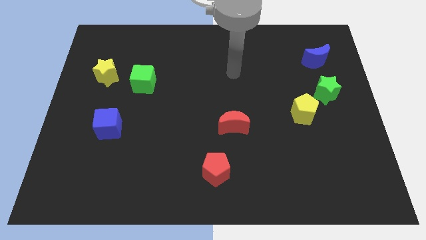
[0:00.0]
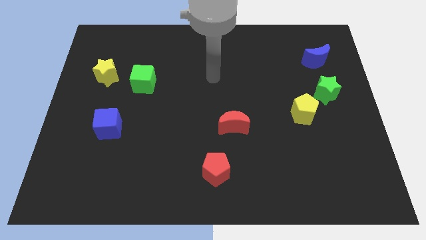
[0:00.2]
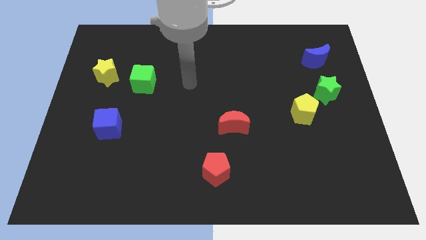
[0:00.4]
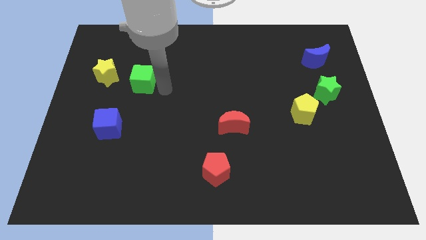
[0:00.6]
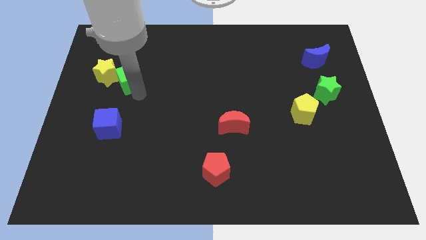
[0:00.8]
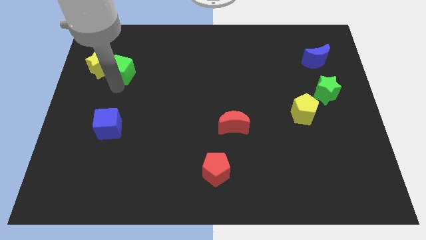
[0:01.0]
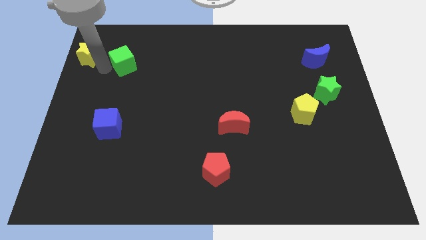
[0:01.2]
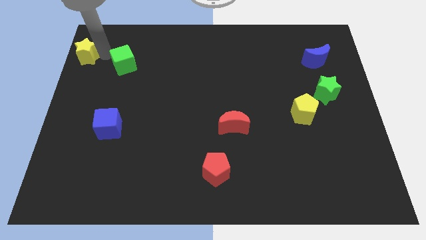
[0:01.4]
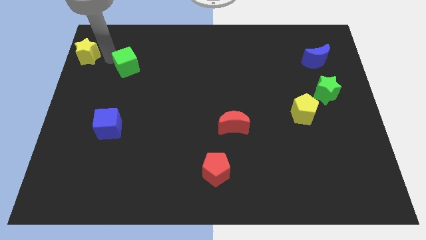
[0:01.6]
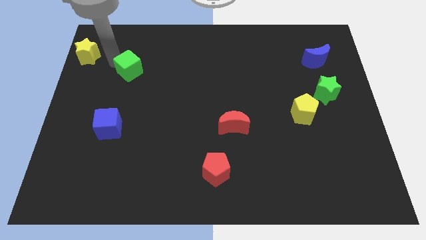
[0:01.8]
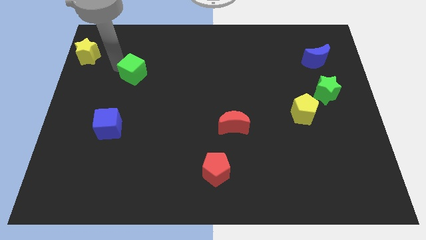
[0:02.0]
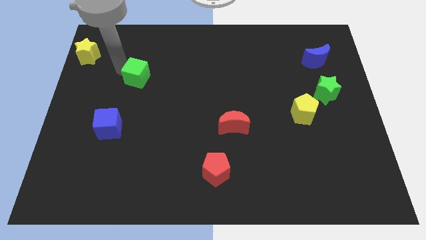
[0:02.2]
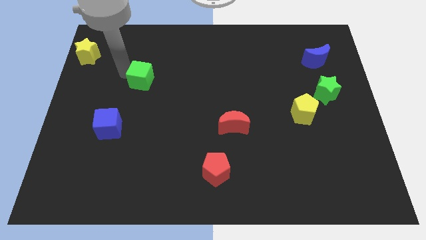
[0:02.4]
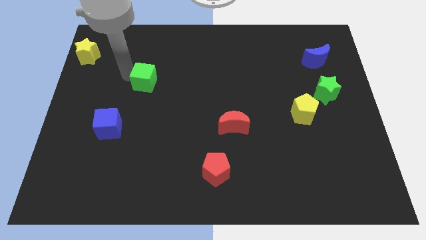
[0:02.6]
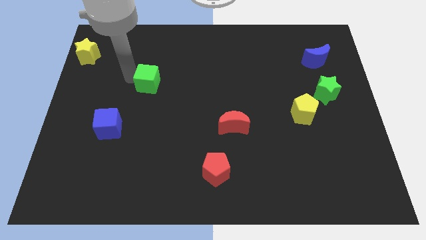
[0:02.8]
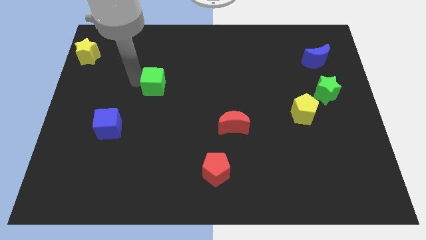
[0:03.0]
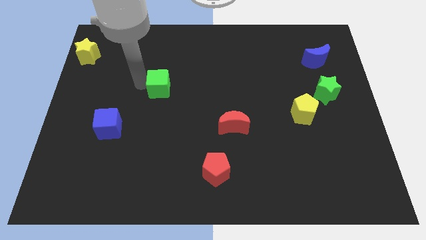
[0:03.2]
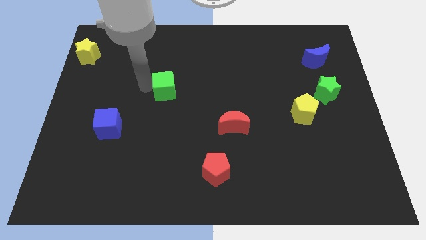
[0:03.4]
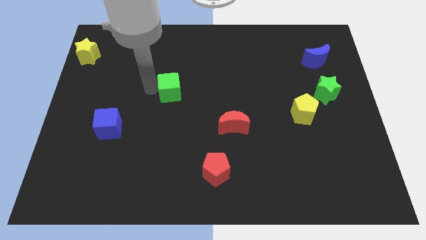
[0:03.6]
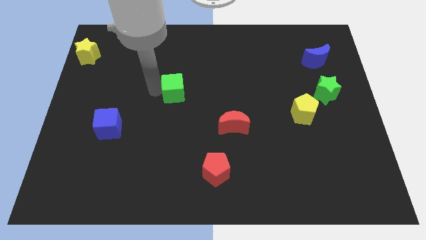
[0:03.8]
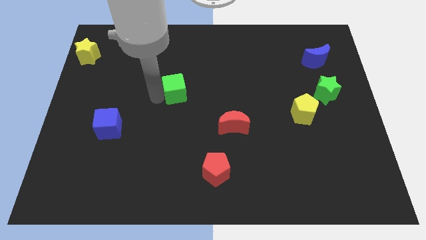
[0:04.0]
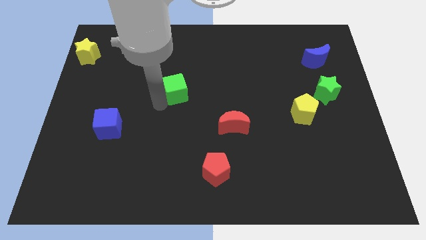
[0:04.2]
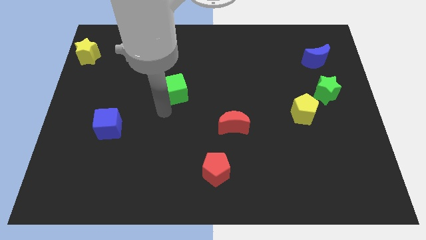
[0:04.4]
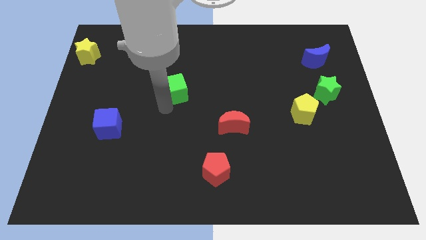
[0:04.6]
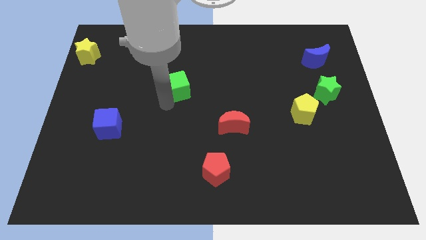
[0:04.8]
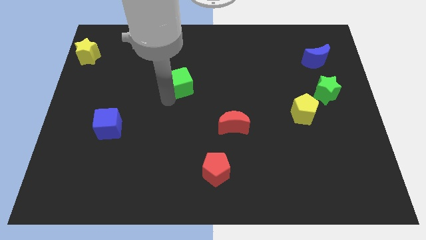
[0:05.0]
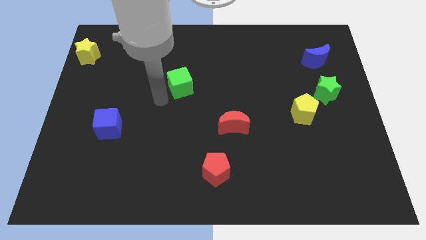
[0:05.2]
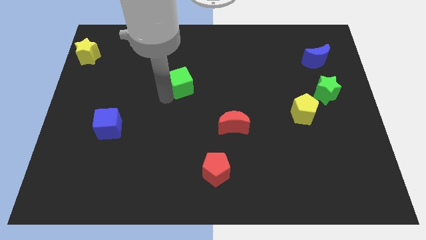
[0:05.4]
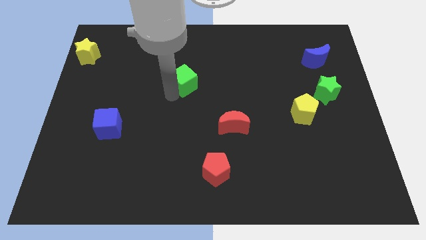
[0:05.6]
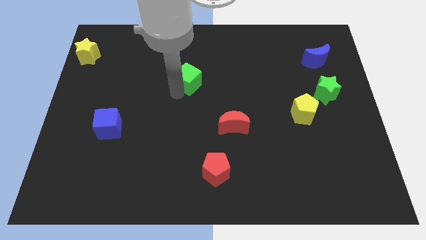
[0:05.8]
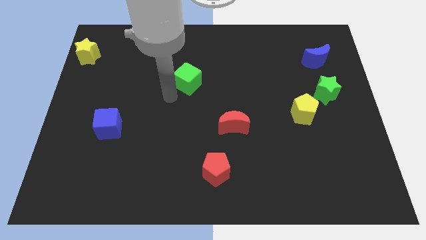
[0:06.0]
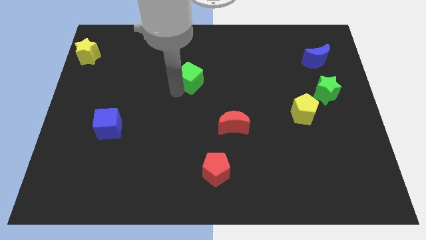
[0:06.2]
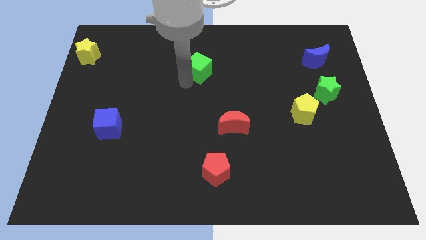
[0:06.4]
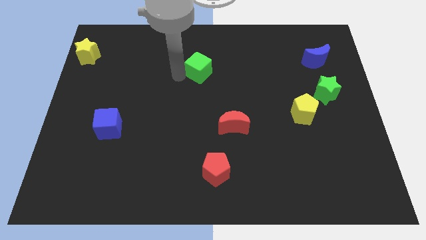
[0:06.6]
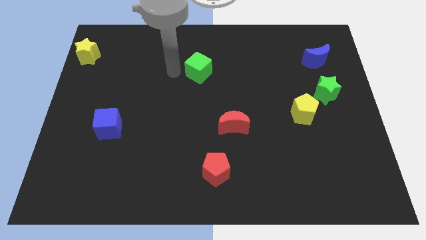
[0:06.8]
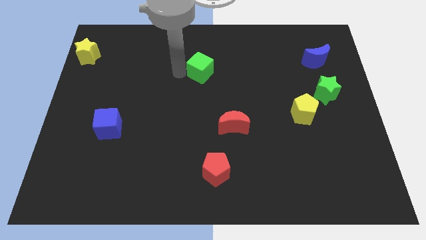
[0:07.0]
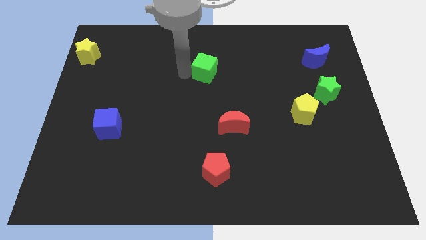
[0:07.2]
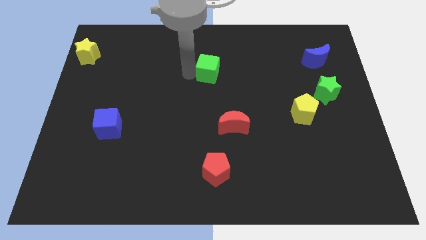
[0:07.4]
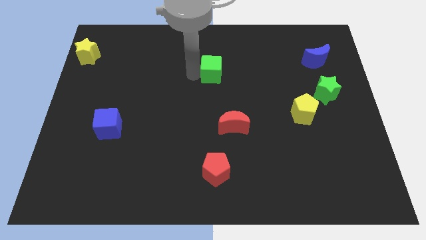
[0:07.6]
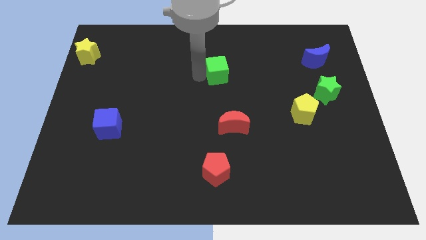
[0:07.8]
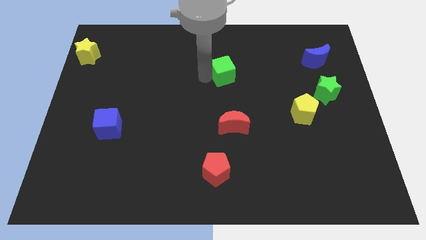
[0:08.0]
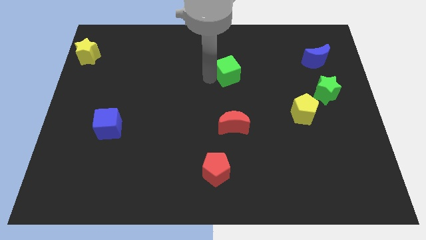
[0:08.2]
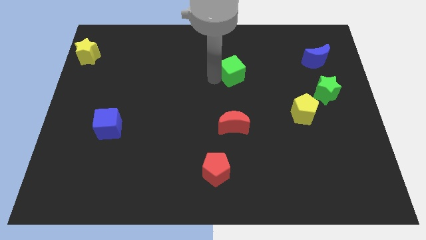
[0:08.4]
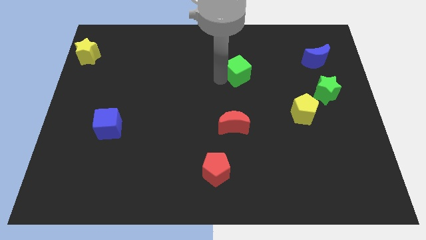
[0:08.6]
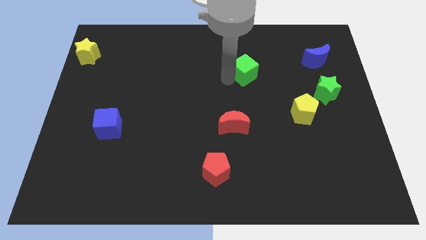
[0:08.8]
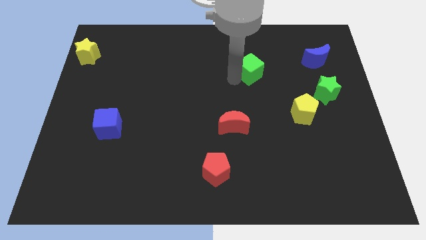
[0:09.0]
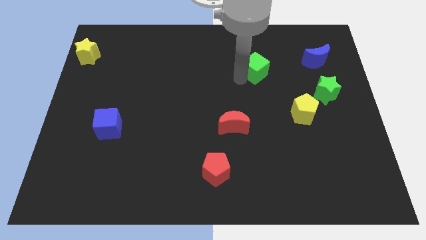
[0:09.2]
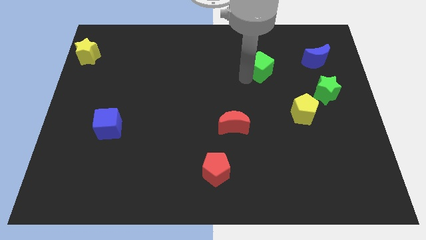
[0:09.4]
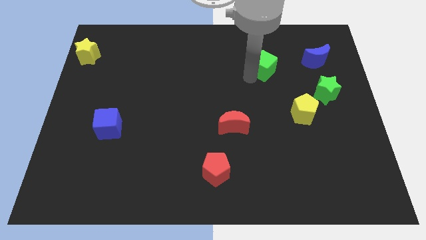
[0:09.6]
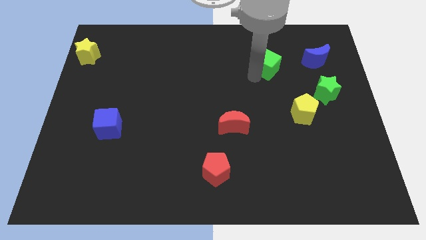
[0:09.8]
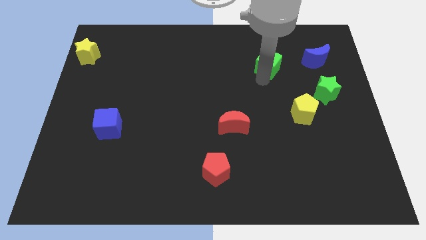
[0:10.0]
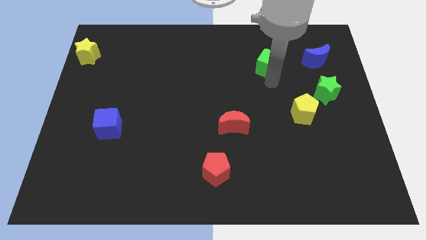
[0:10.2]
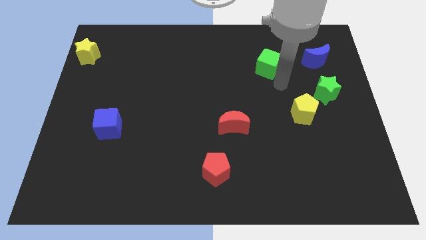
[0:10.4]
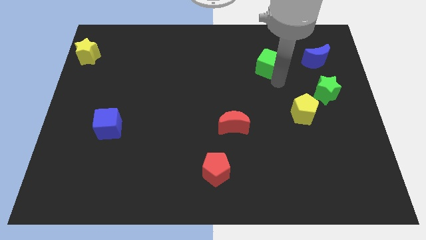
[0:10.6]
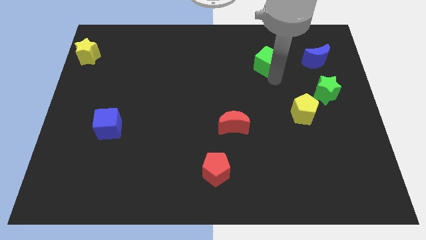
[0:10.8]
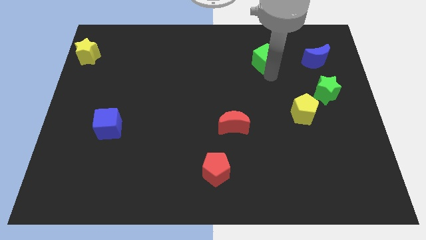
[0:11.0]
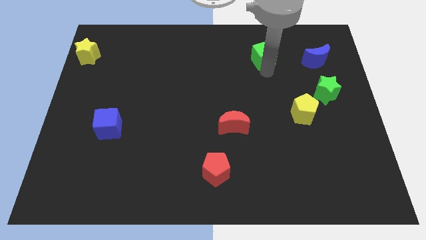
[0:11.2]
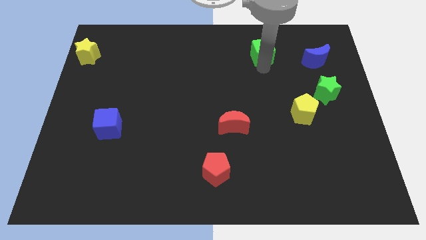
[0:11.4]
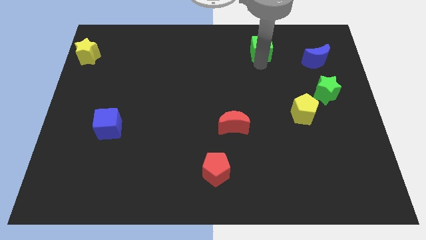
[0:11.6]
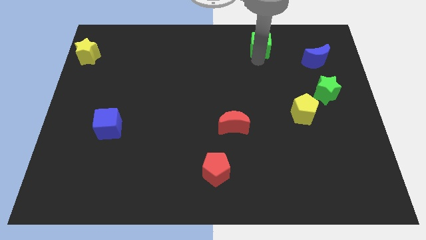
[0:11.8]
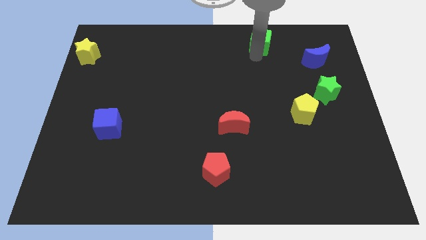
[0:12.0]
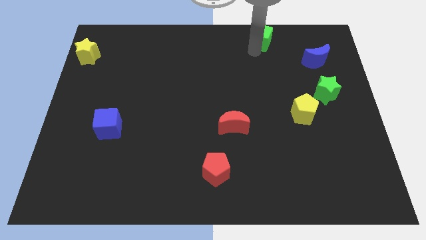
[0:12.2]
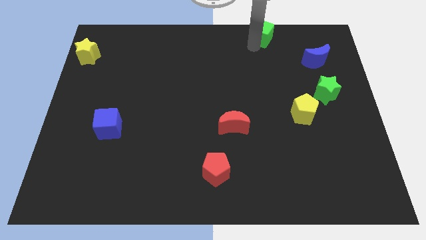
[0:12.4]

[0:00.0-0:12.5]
put the green cube to the top
